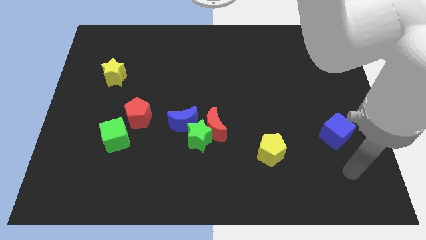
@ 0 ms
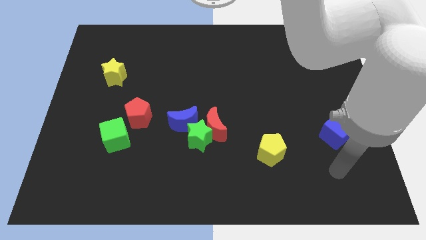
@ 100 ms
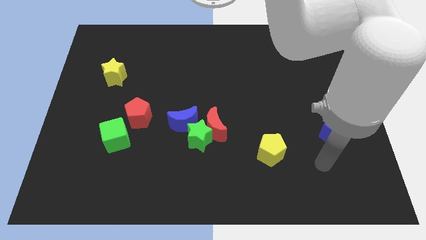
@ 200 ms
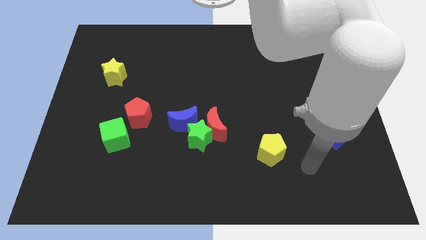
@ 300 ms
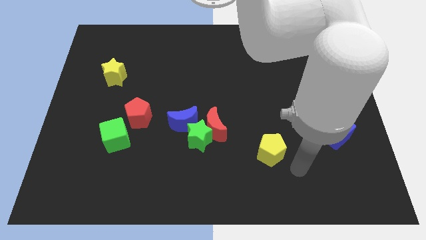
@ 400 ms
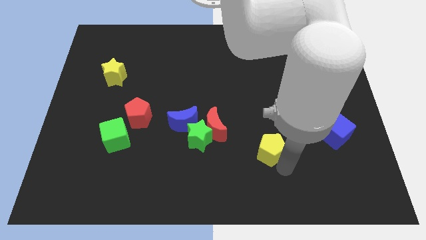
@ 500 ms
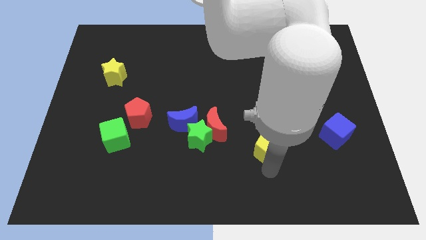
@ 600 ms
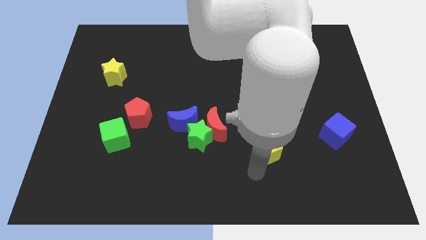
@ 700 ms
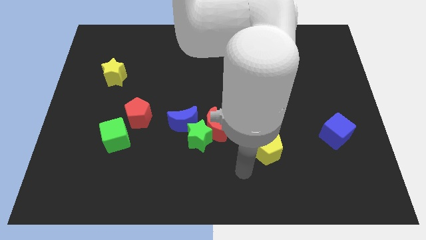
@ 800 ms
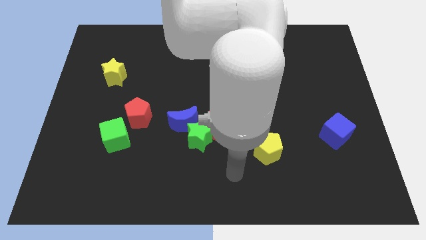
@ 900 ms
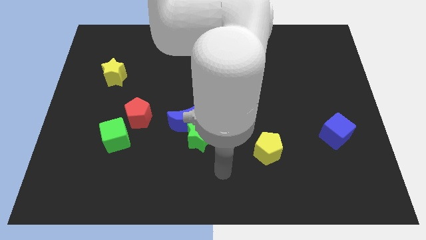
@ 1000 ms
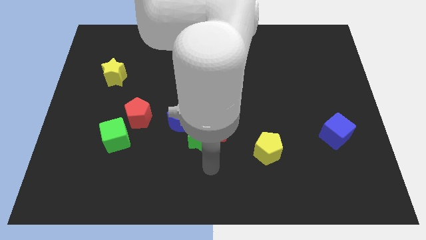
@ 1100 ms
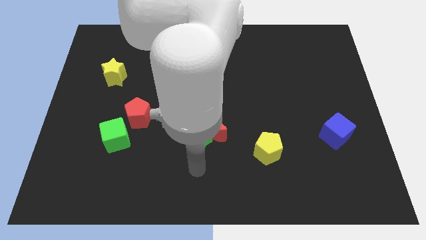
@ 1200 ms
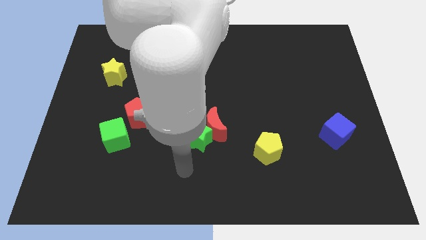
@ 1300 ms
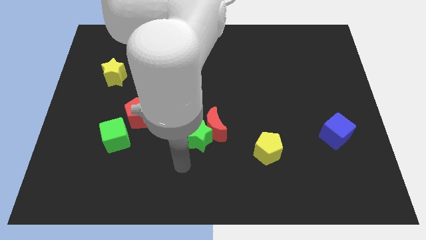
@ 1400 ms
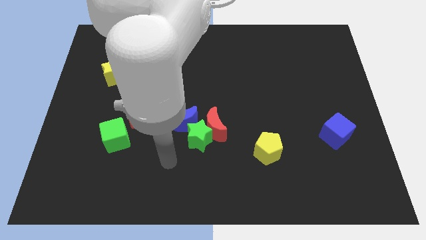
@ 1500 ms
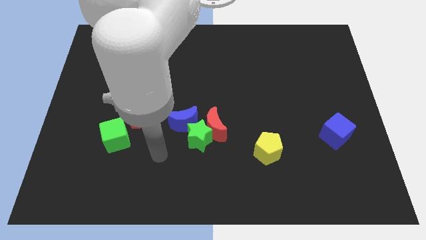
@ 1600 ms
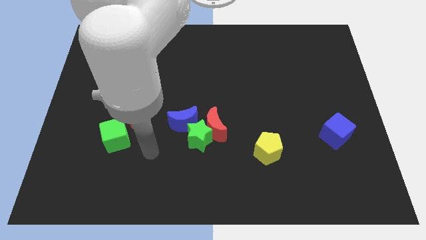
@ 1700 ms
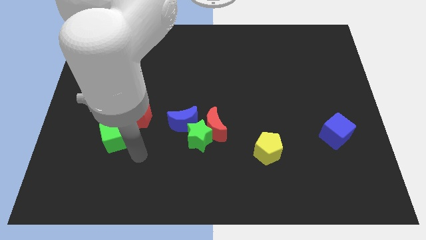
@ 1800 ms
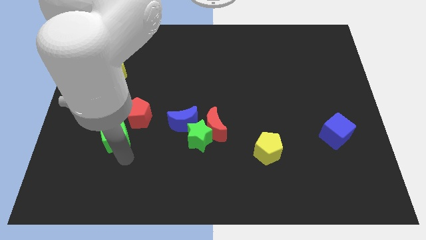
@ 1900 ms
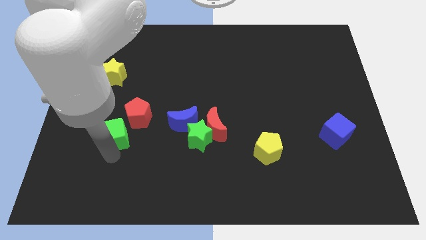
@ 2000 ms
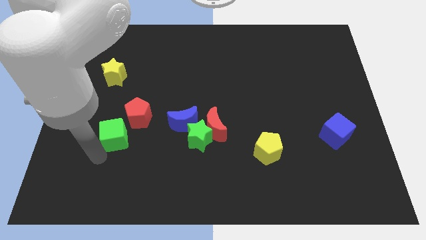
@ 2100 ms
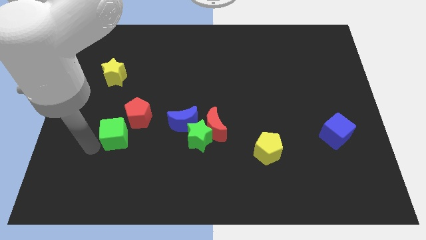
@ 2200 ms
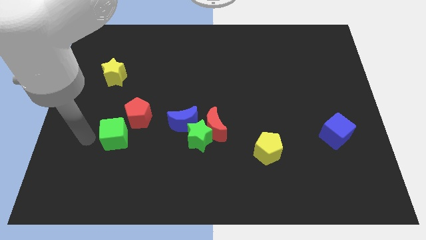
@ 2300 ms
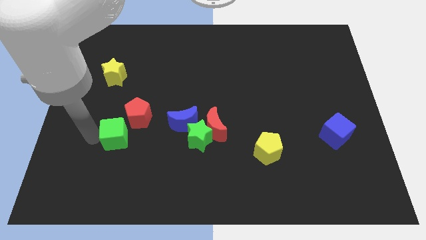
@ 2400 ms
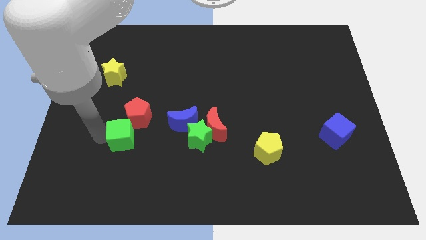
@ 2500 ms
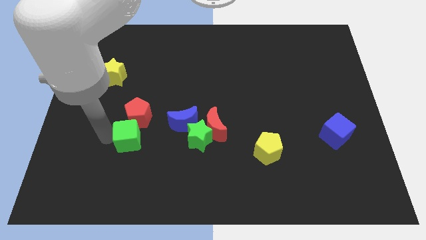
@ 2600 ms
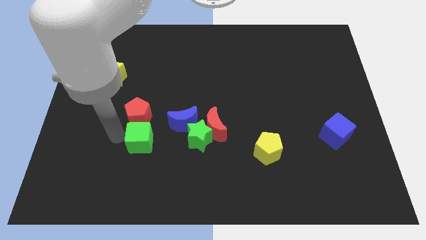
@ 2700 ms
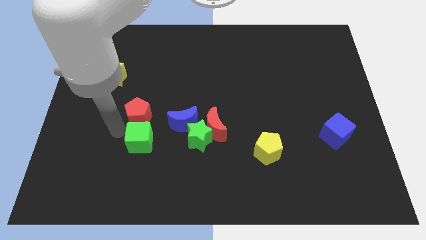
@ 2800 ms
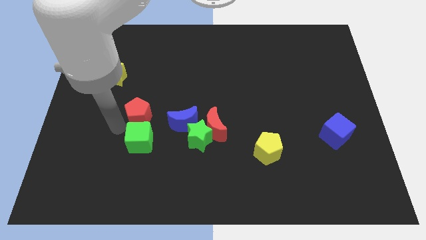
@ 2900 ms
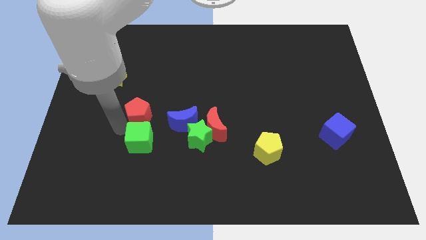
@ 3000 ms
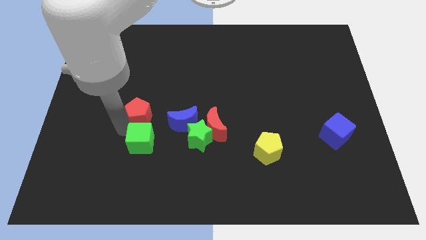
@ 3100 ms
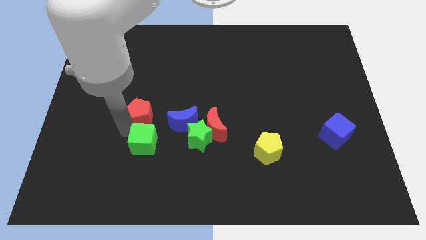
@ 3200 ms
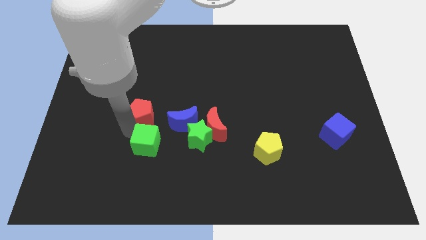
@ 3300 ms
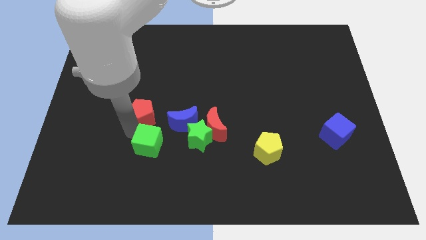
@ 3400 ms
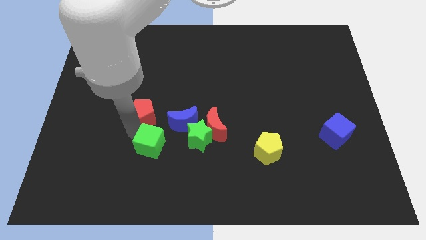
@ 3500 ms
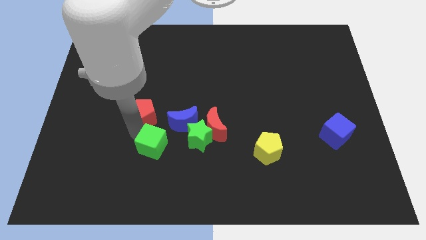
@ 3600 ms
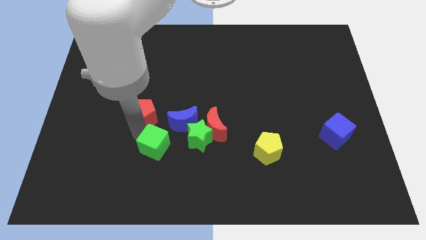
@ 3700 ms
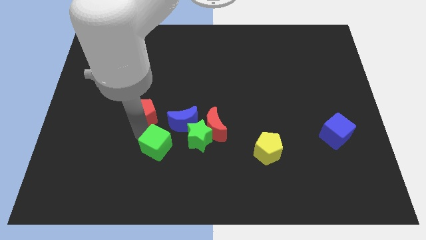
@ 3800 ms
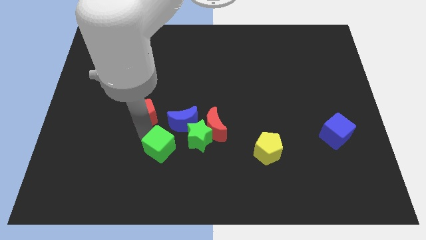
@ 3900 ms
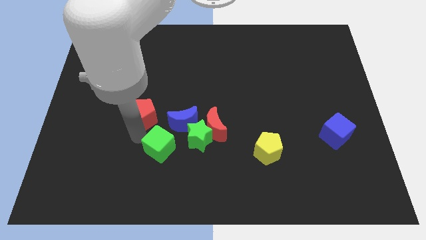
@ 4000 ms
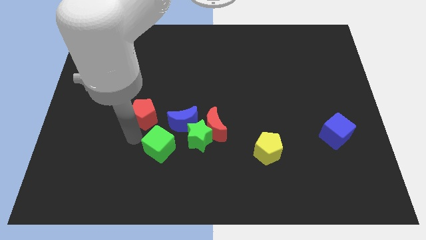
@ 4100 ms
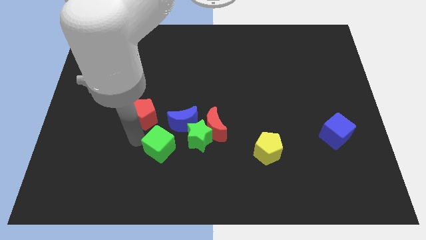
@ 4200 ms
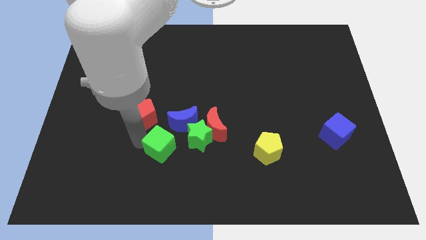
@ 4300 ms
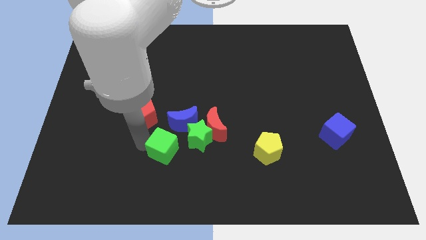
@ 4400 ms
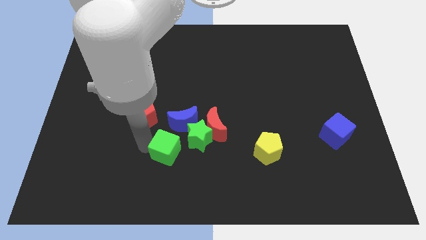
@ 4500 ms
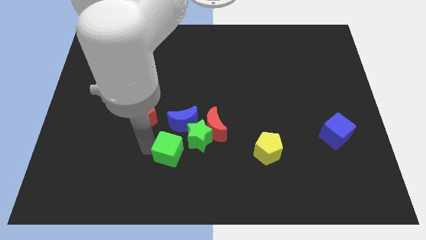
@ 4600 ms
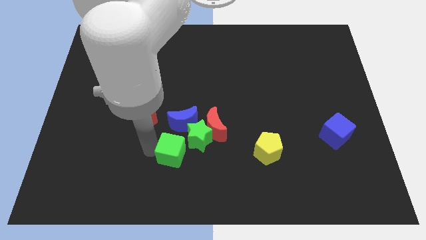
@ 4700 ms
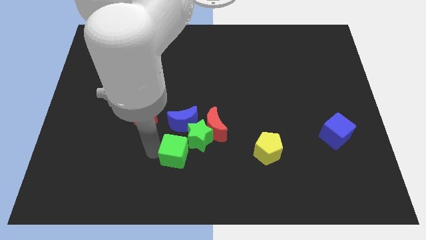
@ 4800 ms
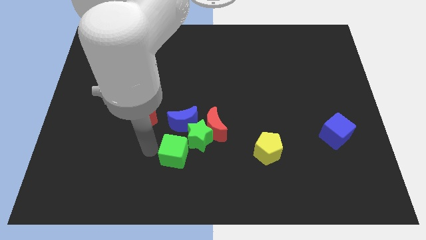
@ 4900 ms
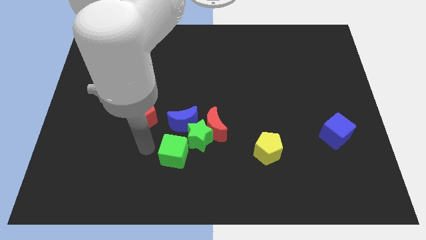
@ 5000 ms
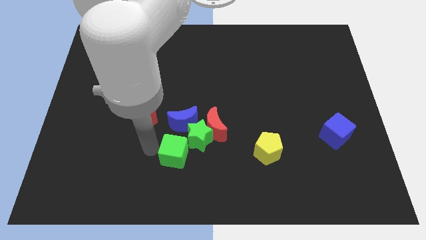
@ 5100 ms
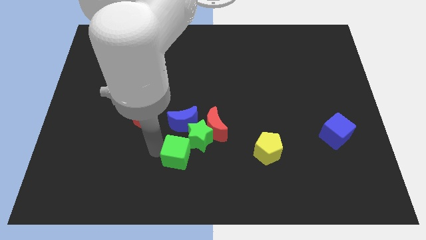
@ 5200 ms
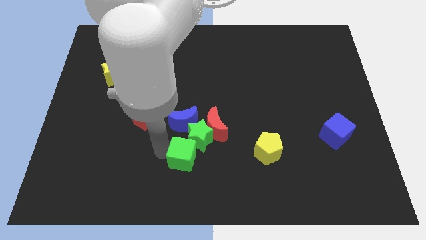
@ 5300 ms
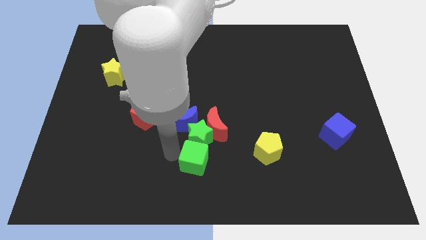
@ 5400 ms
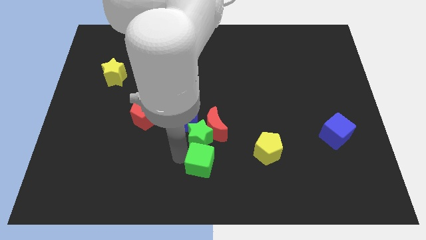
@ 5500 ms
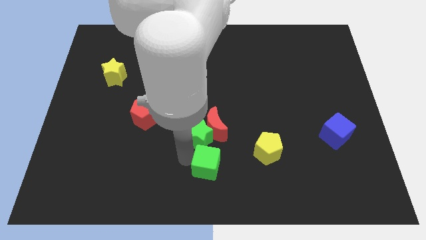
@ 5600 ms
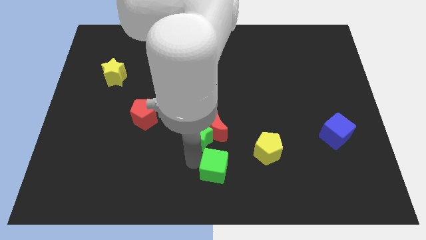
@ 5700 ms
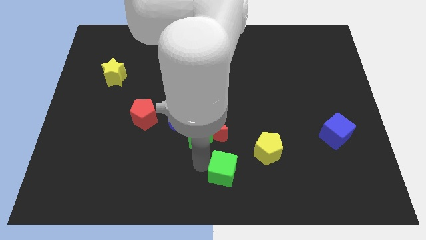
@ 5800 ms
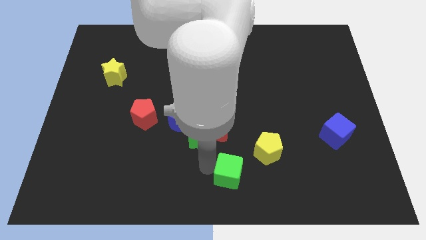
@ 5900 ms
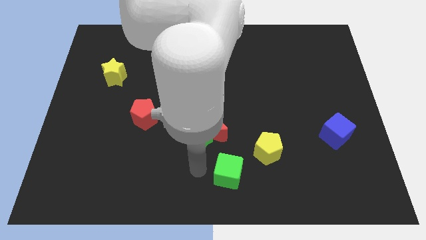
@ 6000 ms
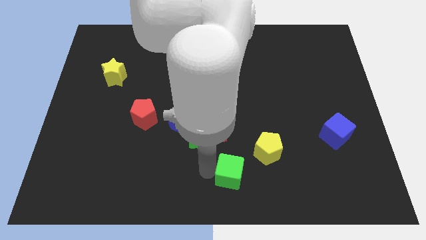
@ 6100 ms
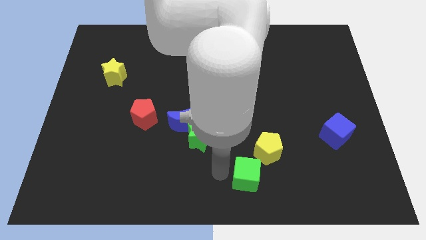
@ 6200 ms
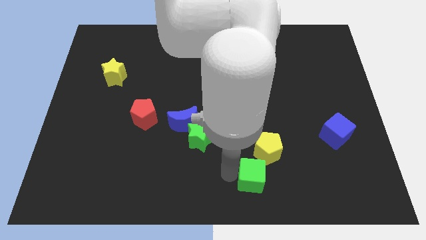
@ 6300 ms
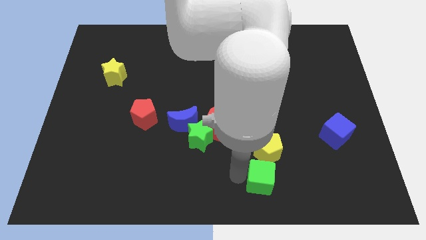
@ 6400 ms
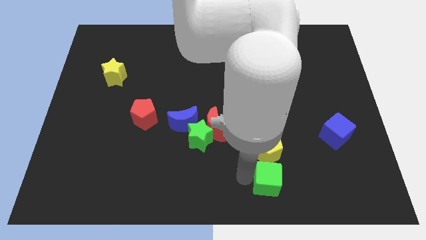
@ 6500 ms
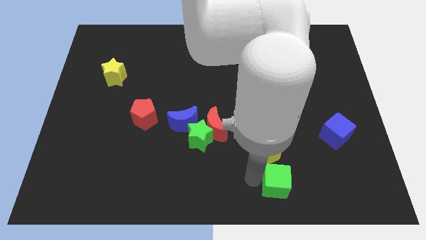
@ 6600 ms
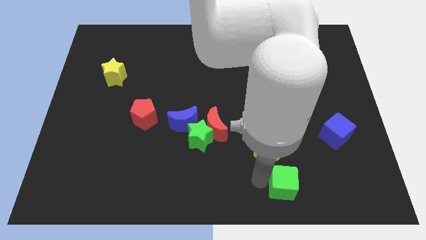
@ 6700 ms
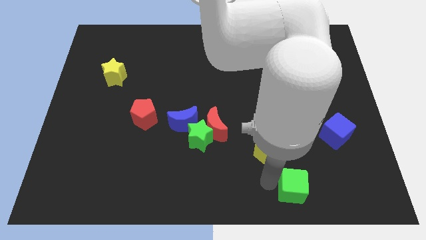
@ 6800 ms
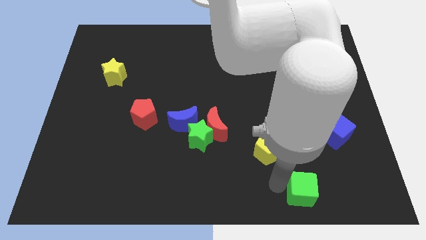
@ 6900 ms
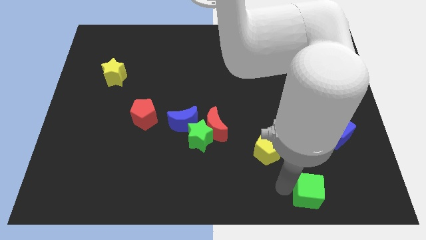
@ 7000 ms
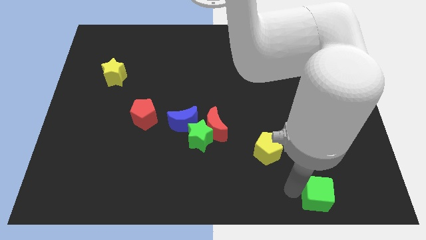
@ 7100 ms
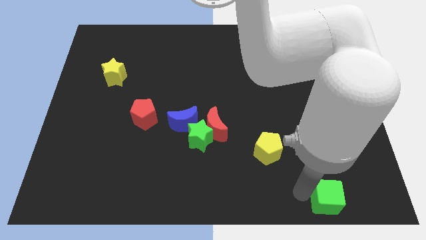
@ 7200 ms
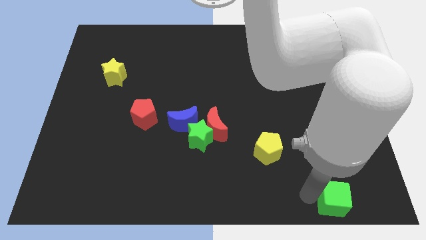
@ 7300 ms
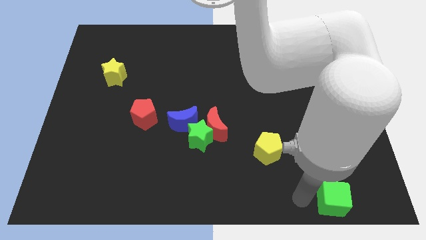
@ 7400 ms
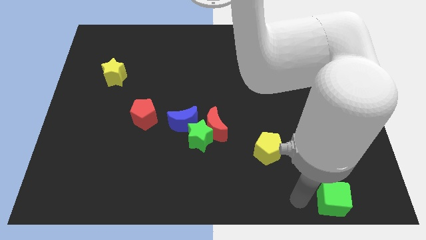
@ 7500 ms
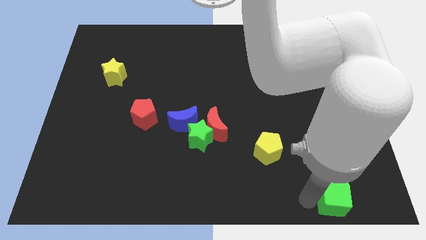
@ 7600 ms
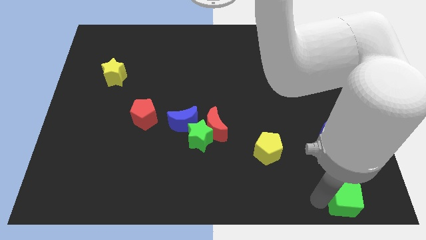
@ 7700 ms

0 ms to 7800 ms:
push the green cube to the bottom right corner
